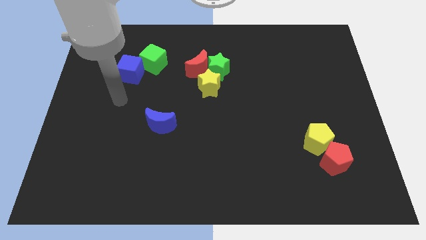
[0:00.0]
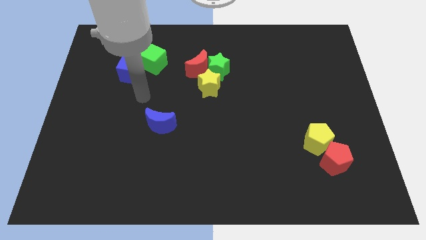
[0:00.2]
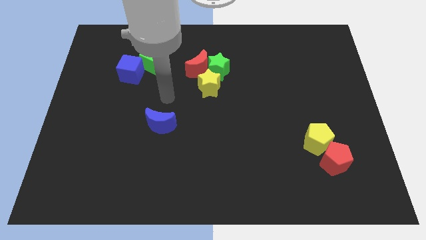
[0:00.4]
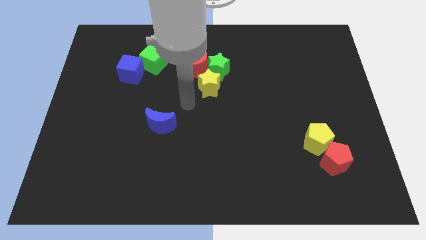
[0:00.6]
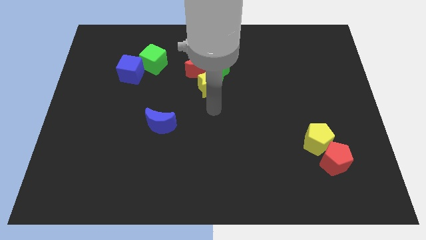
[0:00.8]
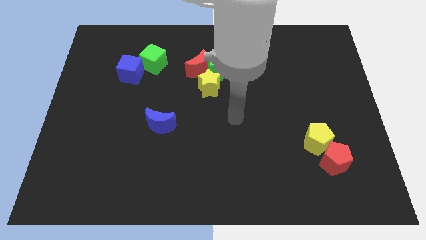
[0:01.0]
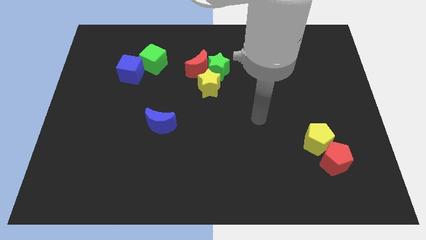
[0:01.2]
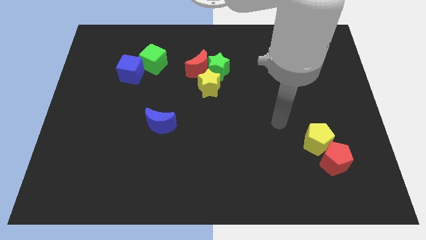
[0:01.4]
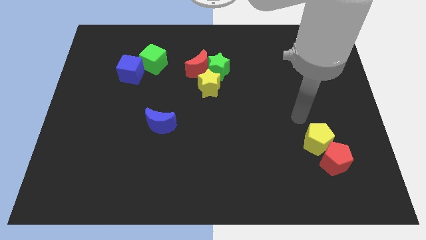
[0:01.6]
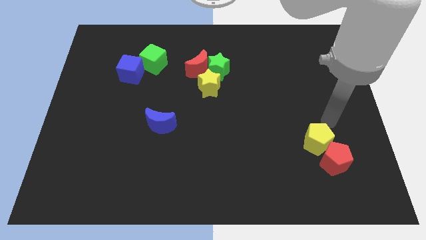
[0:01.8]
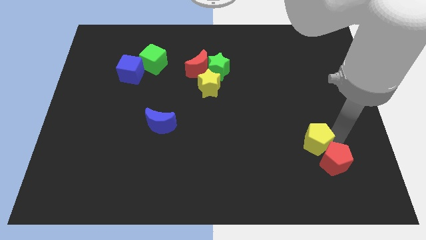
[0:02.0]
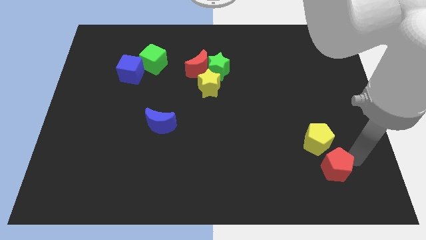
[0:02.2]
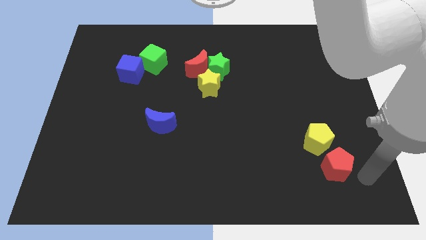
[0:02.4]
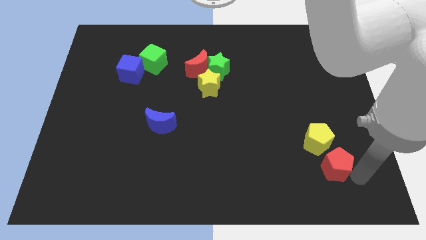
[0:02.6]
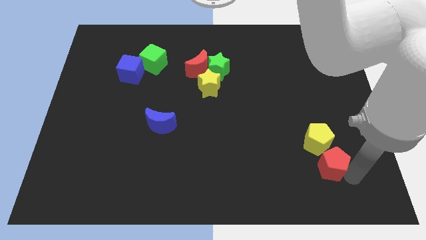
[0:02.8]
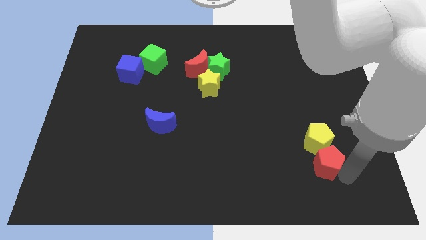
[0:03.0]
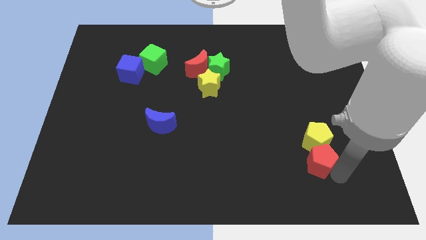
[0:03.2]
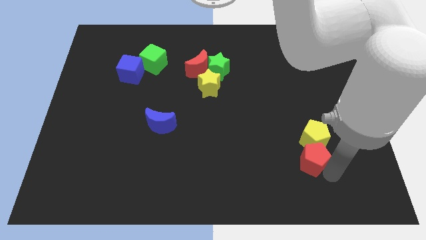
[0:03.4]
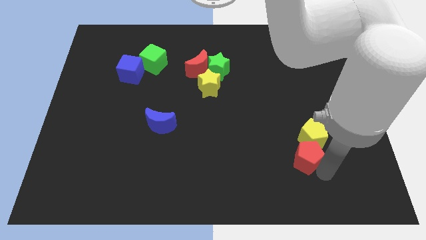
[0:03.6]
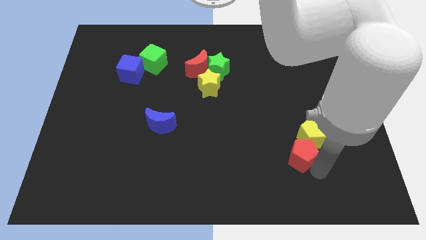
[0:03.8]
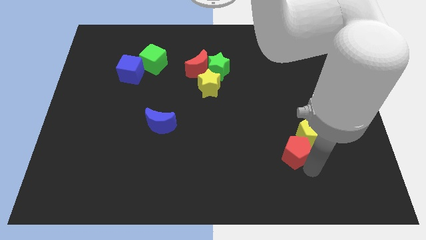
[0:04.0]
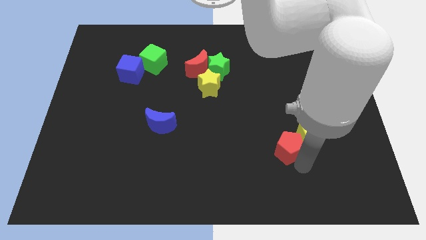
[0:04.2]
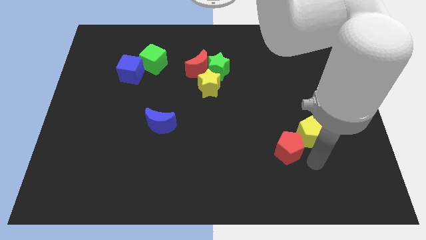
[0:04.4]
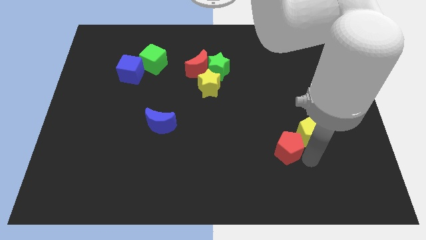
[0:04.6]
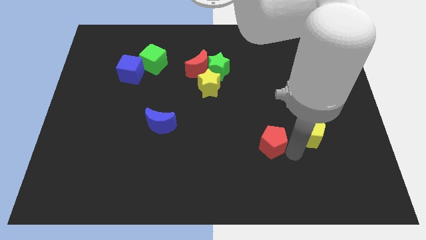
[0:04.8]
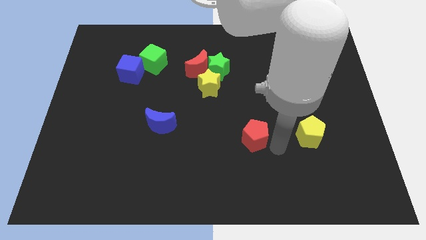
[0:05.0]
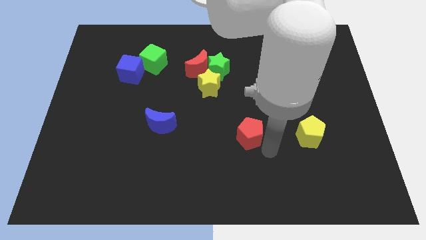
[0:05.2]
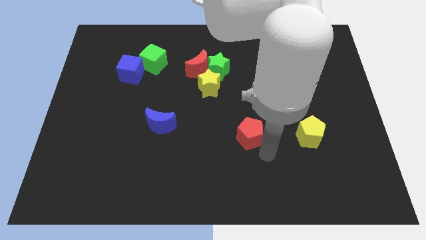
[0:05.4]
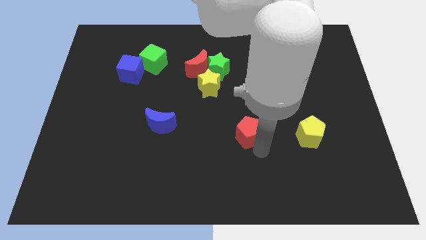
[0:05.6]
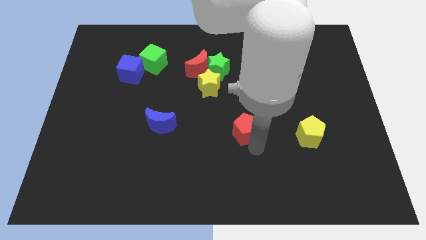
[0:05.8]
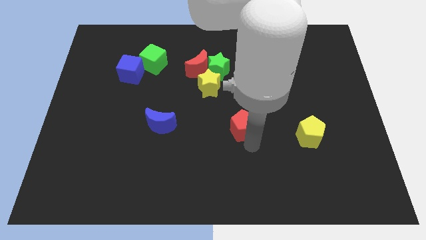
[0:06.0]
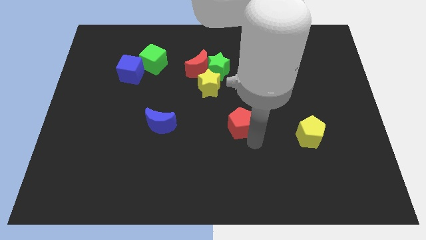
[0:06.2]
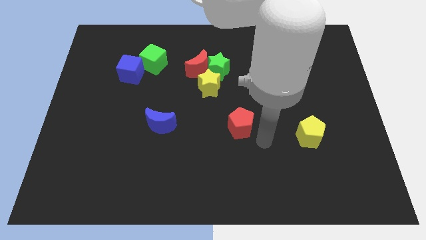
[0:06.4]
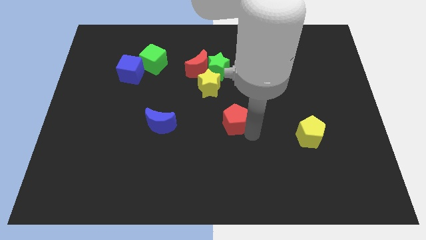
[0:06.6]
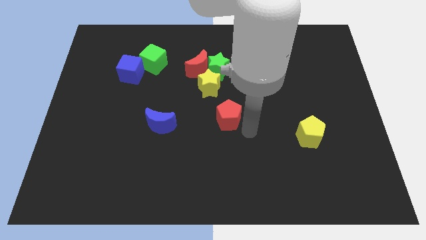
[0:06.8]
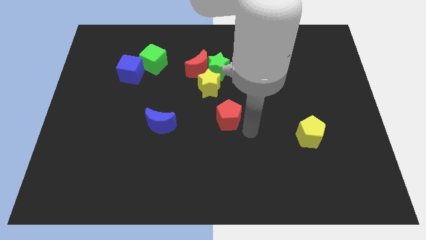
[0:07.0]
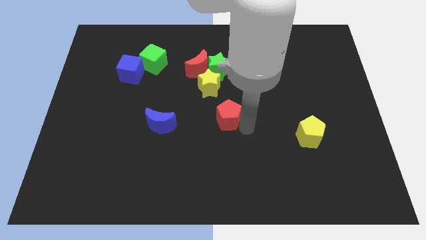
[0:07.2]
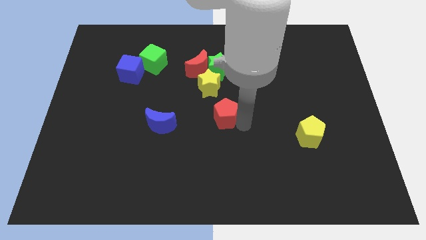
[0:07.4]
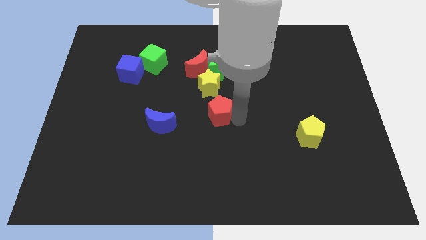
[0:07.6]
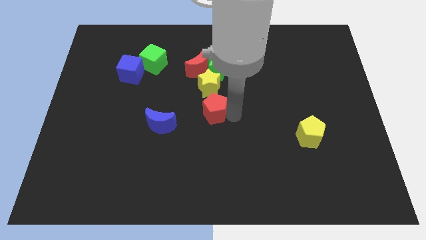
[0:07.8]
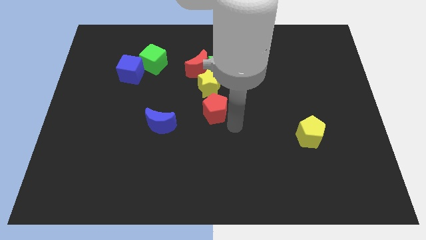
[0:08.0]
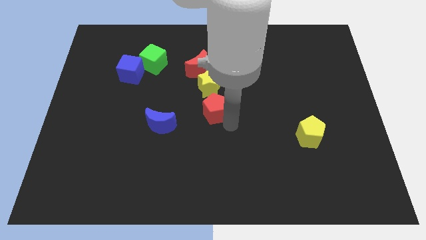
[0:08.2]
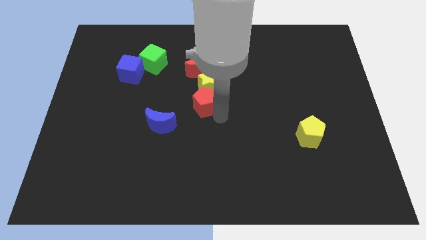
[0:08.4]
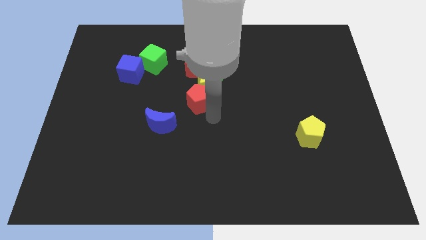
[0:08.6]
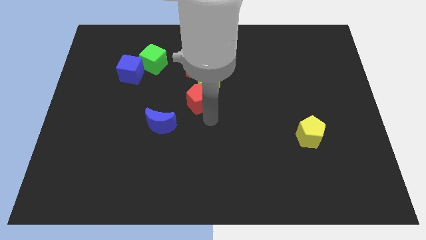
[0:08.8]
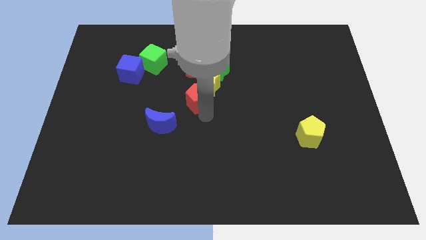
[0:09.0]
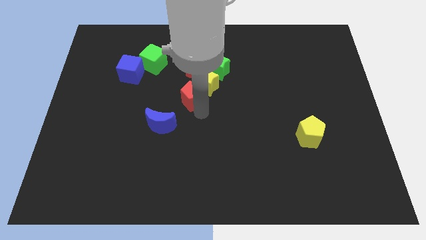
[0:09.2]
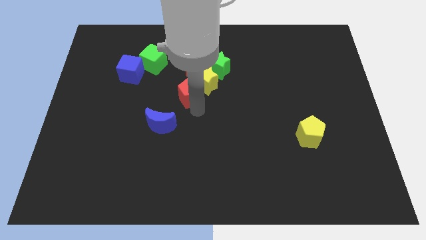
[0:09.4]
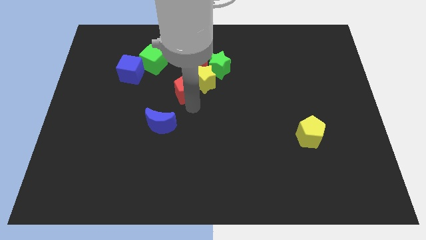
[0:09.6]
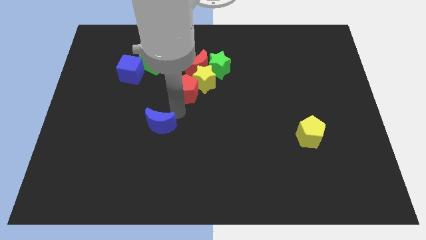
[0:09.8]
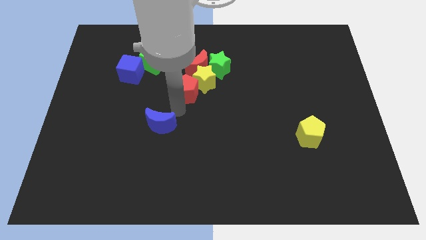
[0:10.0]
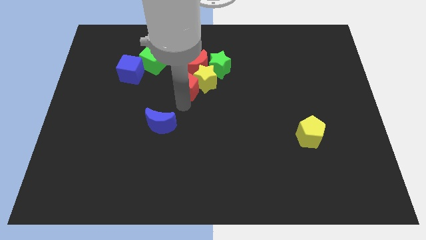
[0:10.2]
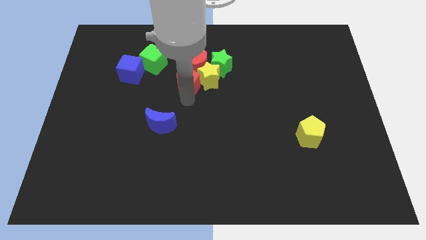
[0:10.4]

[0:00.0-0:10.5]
move the red pentagon to the red moon

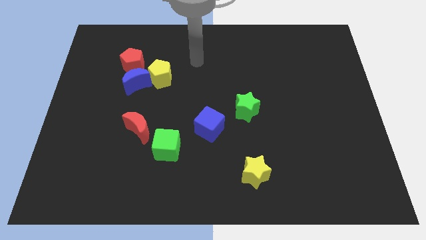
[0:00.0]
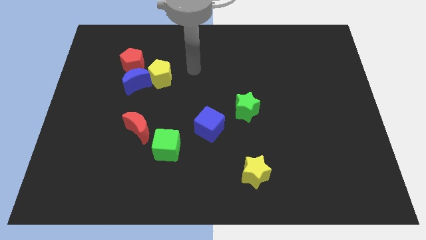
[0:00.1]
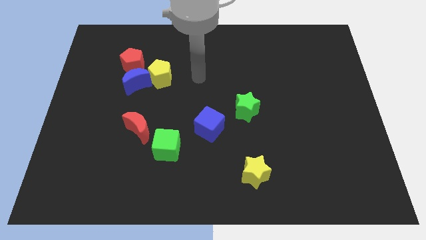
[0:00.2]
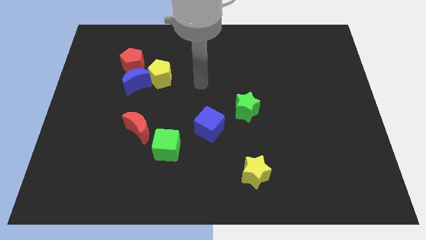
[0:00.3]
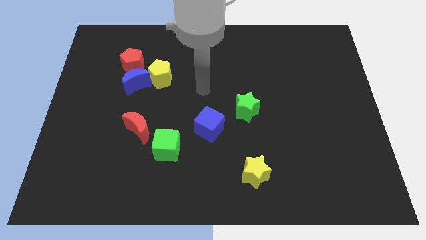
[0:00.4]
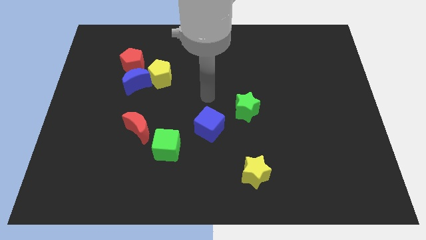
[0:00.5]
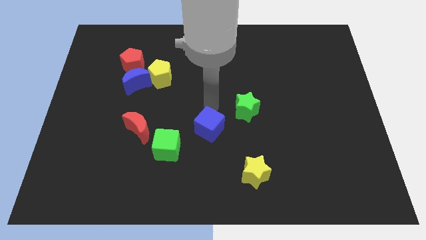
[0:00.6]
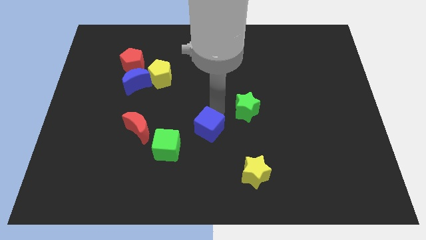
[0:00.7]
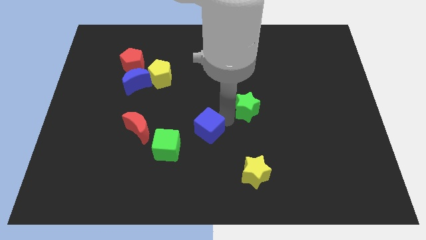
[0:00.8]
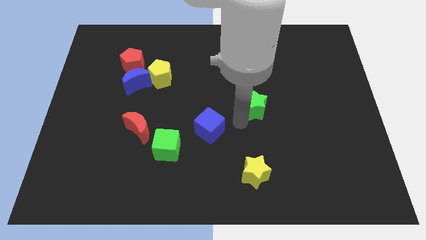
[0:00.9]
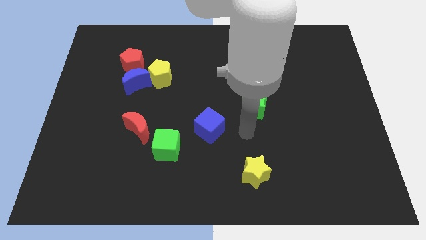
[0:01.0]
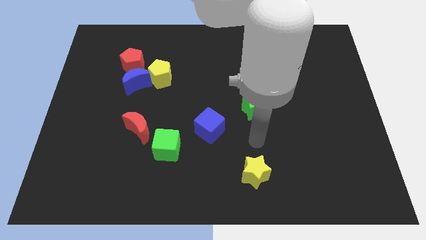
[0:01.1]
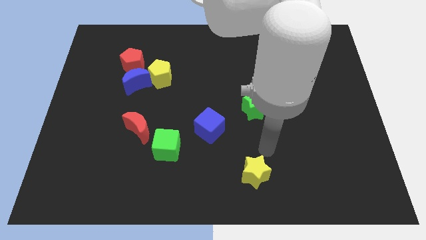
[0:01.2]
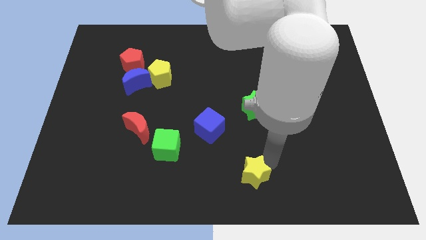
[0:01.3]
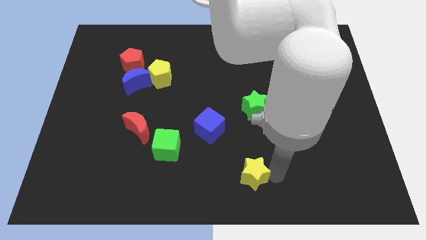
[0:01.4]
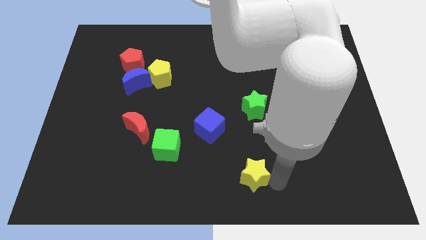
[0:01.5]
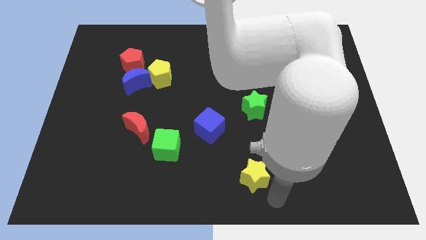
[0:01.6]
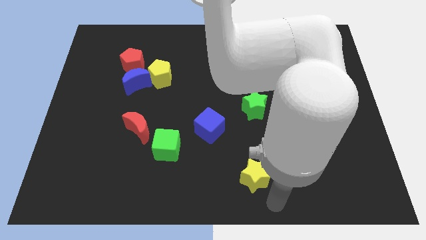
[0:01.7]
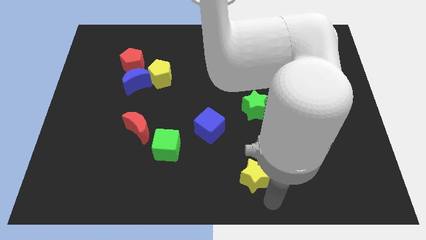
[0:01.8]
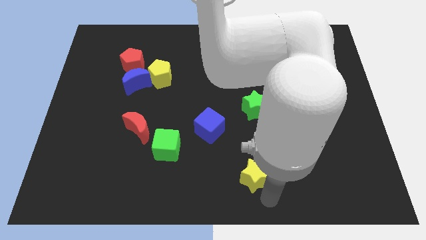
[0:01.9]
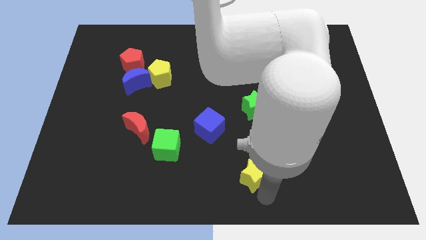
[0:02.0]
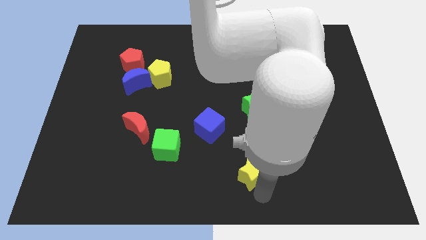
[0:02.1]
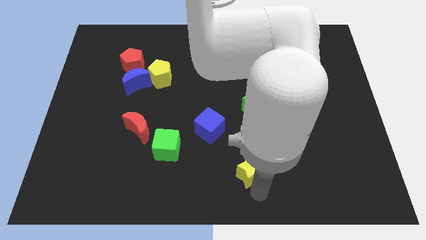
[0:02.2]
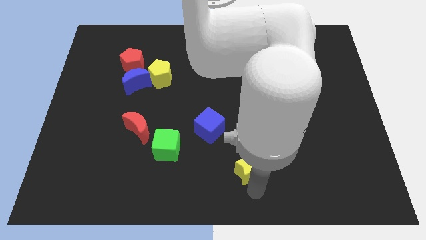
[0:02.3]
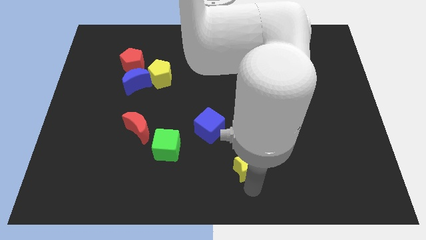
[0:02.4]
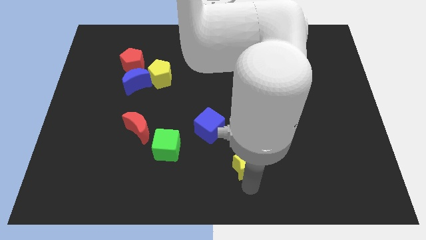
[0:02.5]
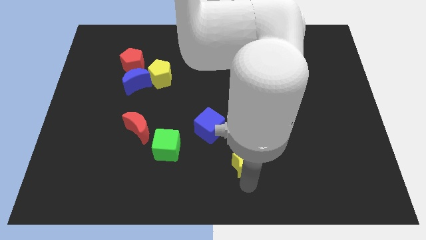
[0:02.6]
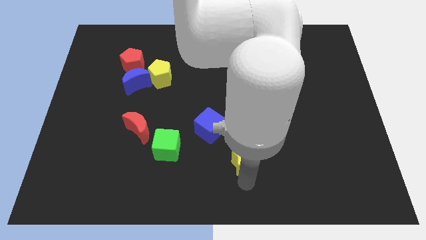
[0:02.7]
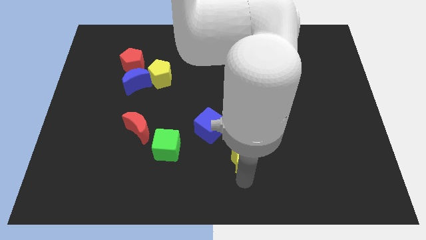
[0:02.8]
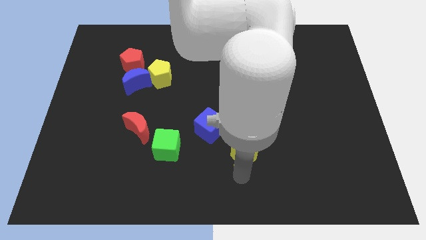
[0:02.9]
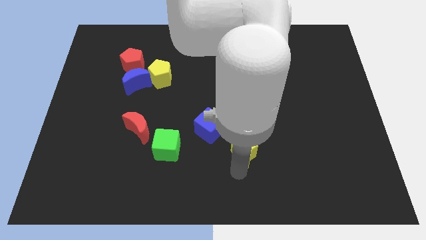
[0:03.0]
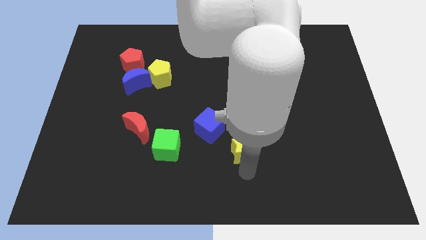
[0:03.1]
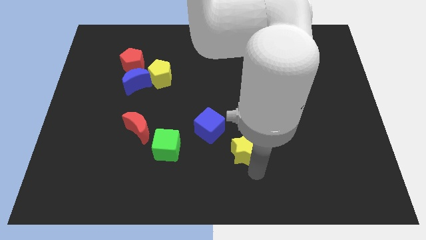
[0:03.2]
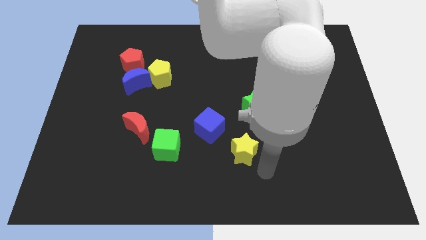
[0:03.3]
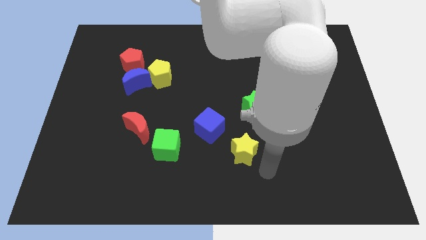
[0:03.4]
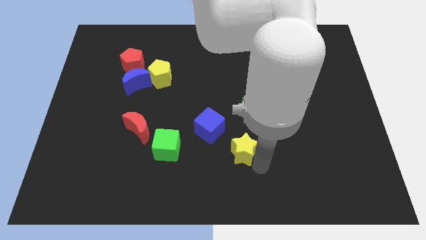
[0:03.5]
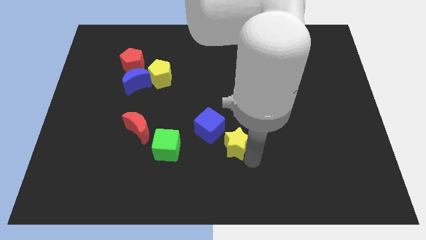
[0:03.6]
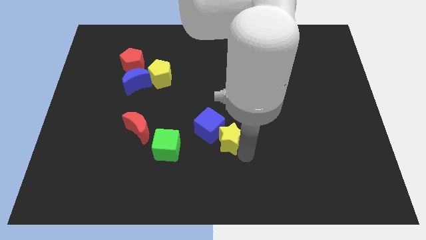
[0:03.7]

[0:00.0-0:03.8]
push the yellow star next to the blue cube
